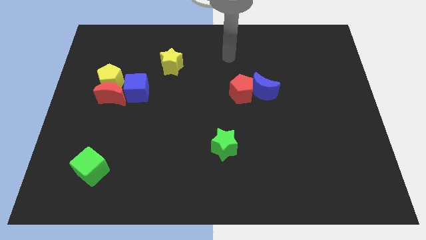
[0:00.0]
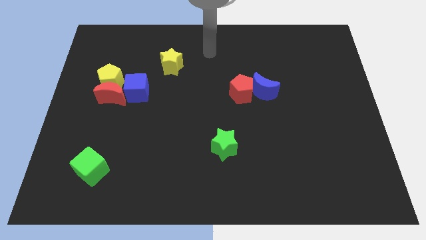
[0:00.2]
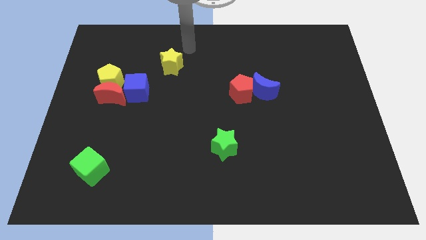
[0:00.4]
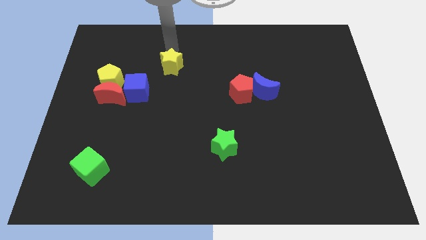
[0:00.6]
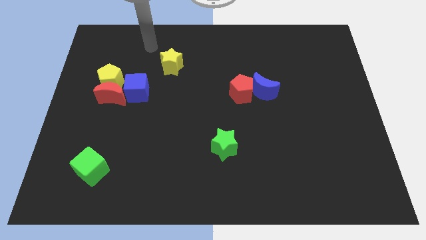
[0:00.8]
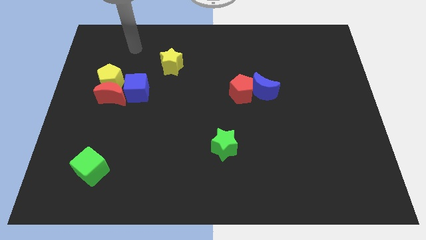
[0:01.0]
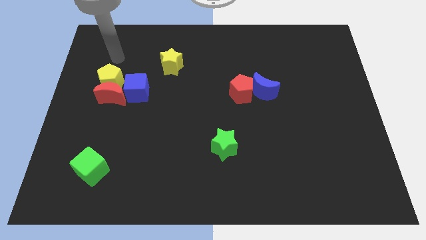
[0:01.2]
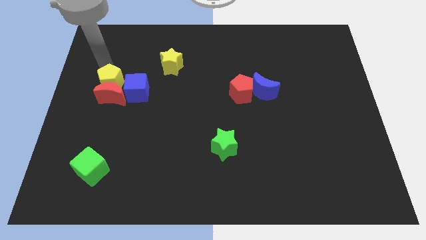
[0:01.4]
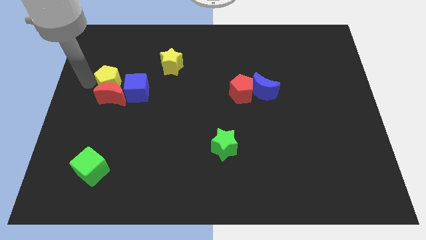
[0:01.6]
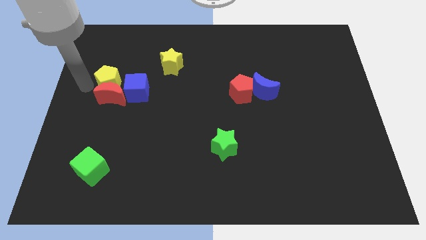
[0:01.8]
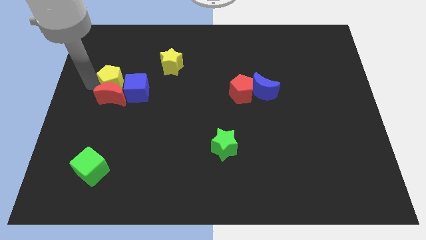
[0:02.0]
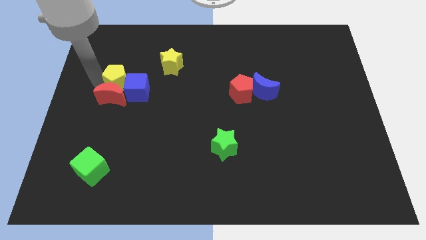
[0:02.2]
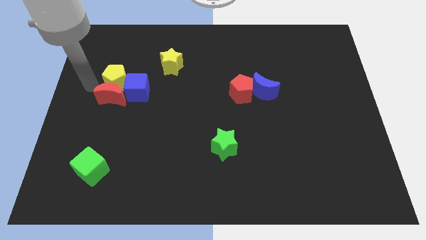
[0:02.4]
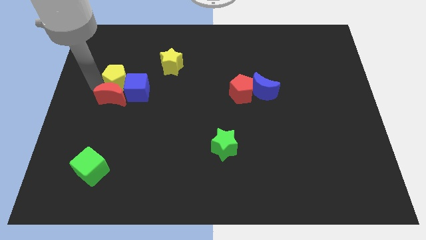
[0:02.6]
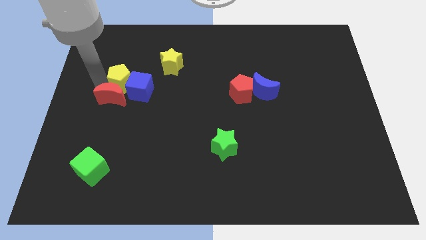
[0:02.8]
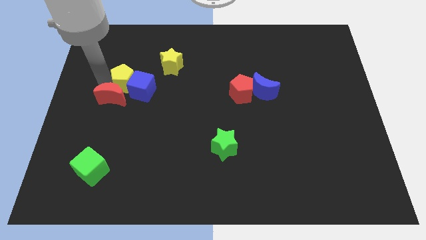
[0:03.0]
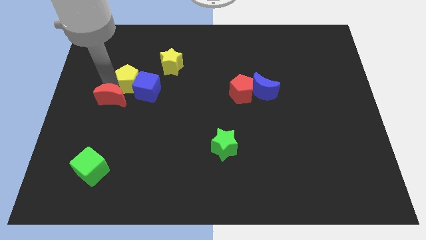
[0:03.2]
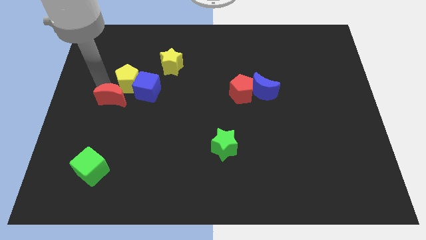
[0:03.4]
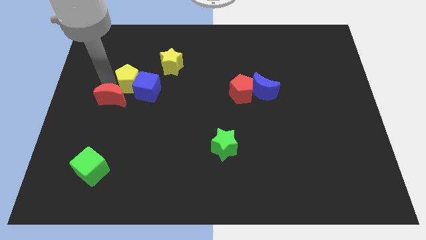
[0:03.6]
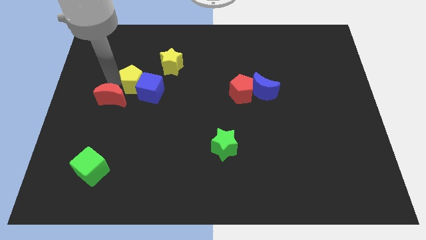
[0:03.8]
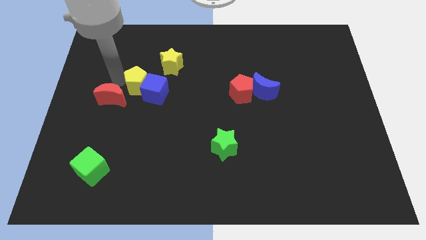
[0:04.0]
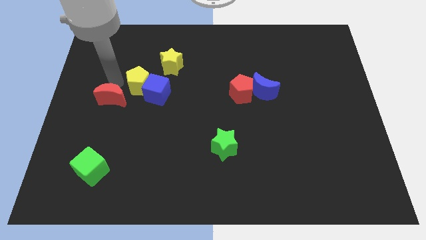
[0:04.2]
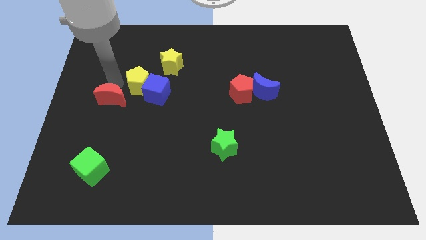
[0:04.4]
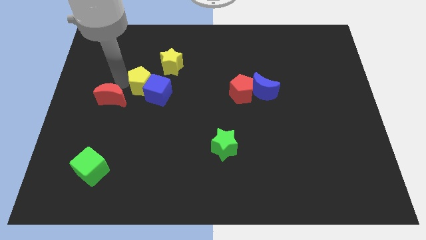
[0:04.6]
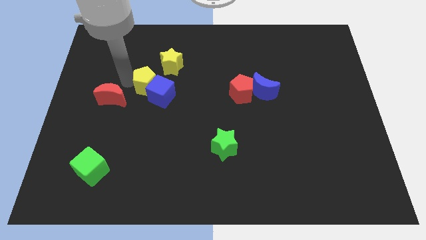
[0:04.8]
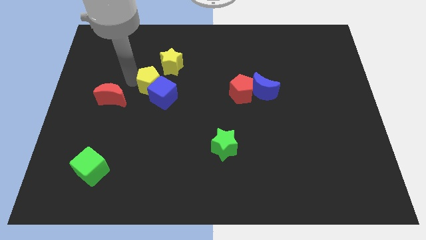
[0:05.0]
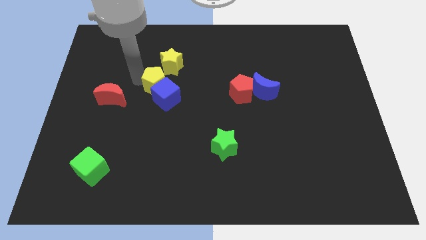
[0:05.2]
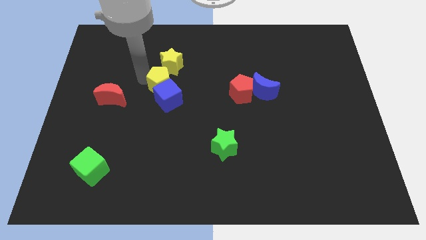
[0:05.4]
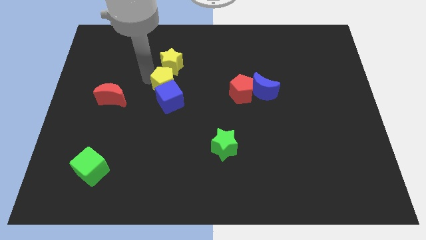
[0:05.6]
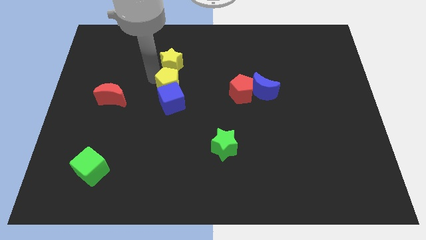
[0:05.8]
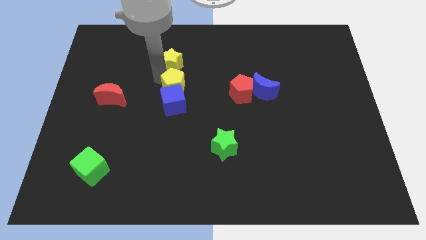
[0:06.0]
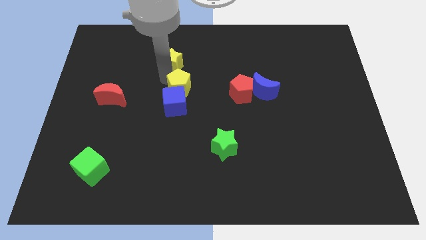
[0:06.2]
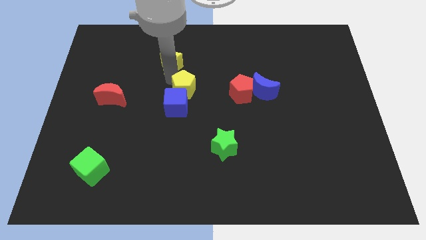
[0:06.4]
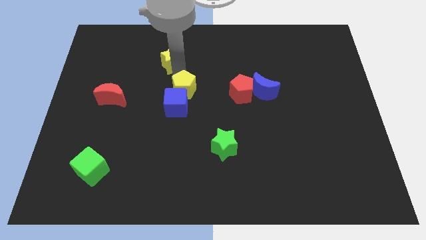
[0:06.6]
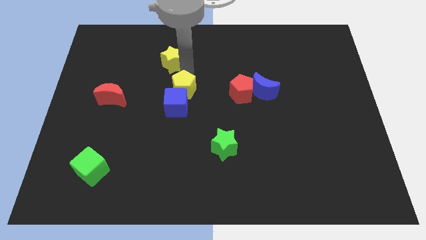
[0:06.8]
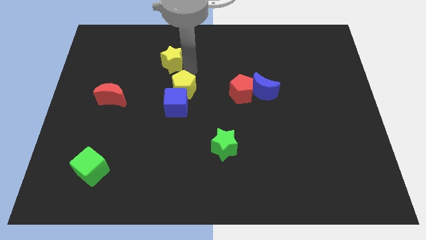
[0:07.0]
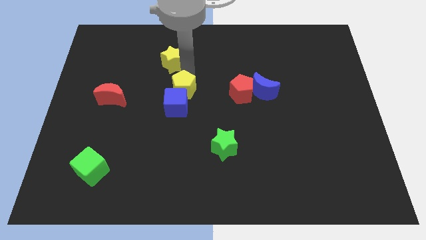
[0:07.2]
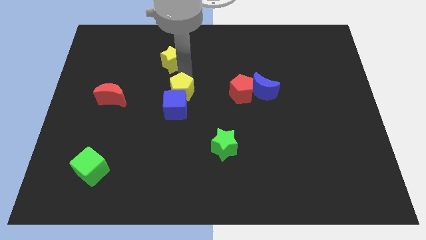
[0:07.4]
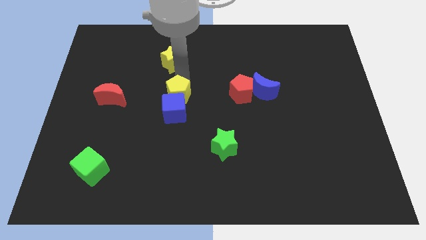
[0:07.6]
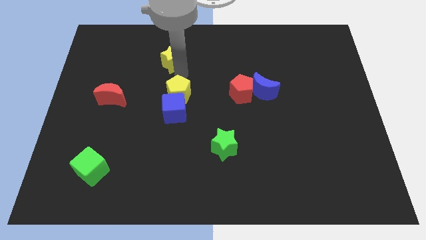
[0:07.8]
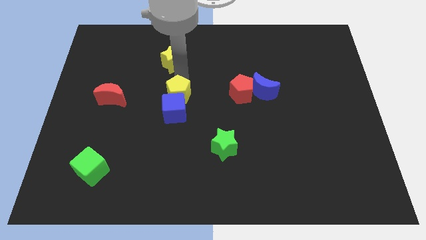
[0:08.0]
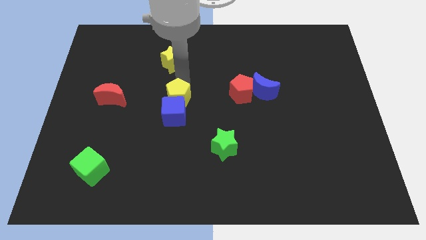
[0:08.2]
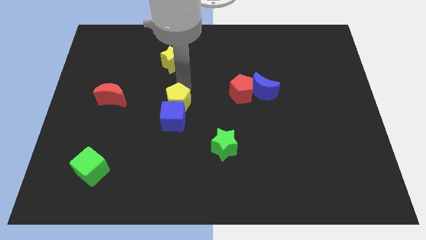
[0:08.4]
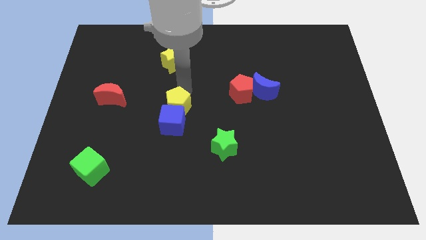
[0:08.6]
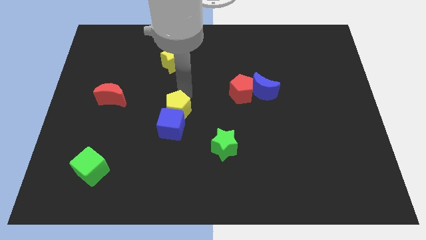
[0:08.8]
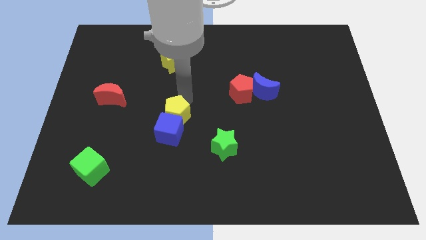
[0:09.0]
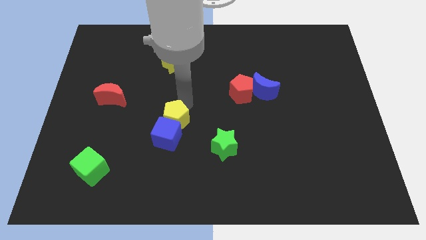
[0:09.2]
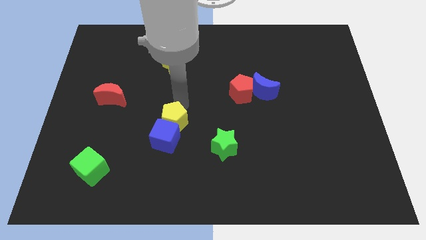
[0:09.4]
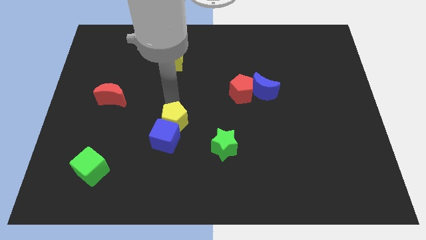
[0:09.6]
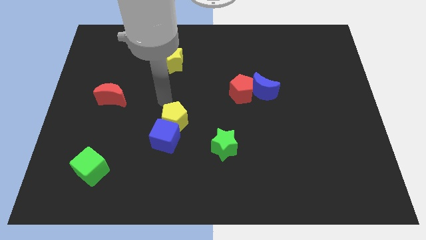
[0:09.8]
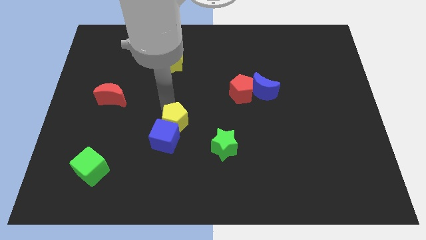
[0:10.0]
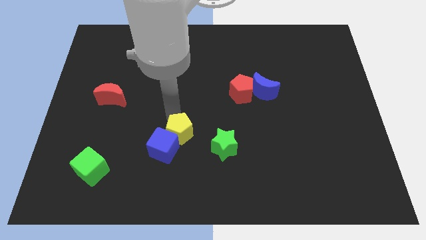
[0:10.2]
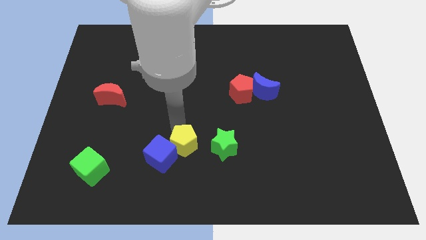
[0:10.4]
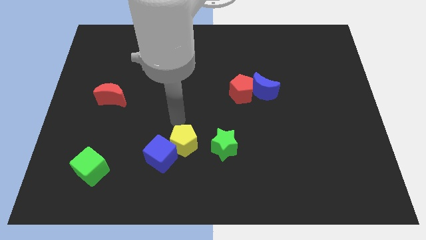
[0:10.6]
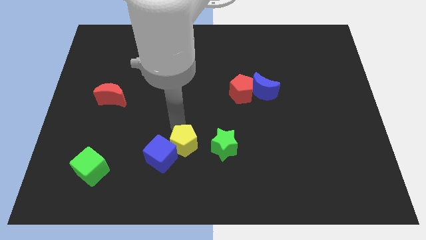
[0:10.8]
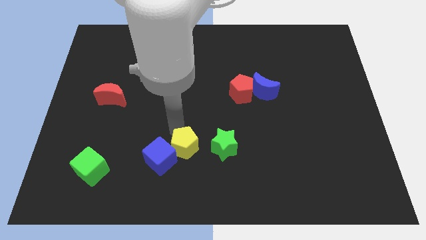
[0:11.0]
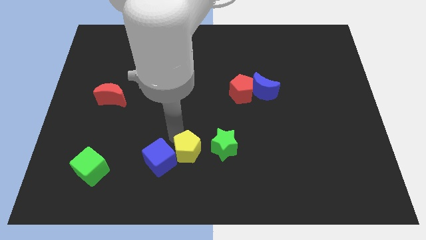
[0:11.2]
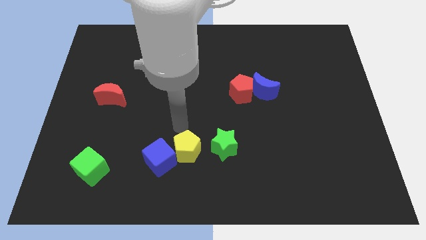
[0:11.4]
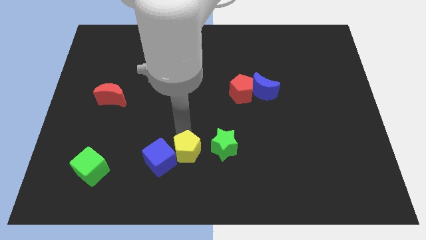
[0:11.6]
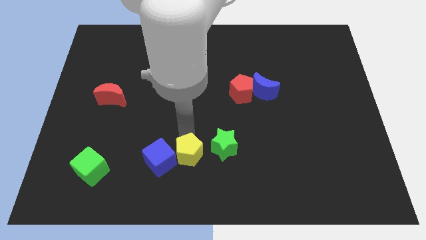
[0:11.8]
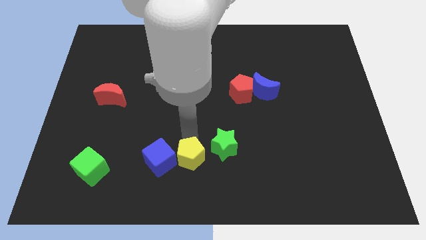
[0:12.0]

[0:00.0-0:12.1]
put the yellow pentagon to the bottom side

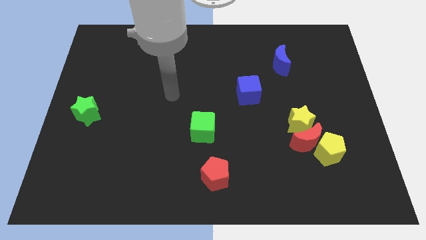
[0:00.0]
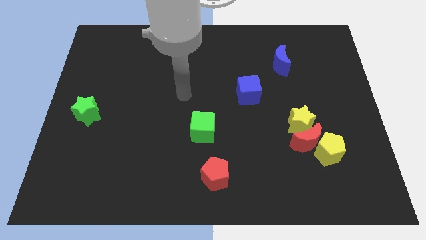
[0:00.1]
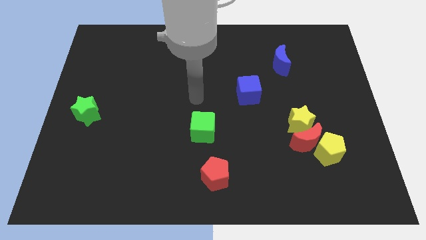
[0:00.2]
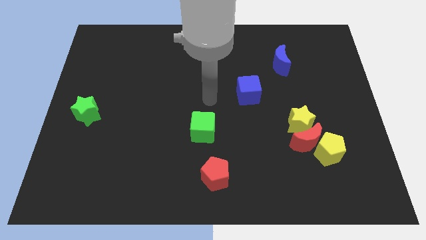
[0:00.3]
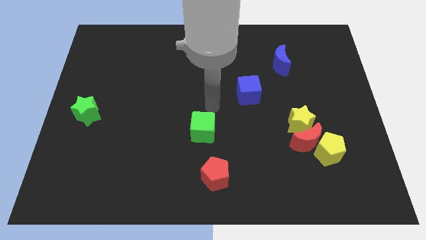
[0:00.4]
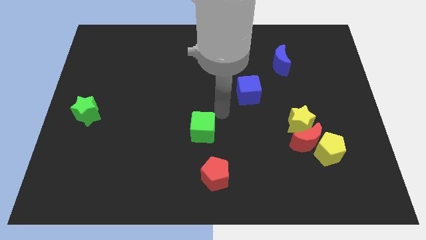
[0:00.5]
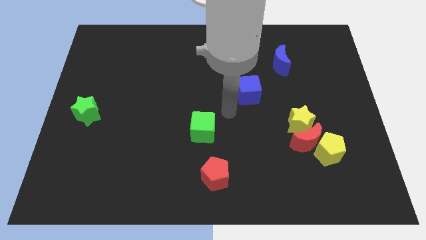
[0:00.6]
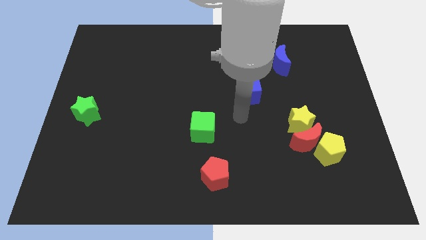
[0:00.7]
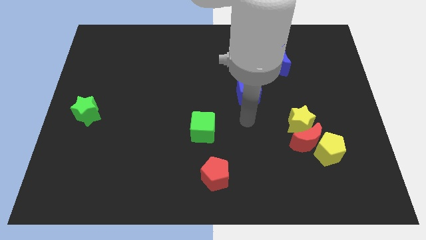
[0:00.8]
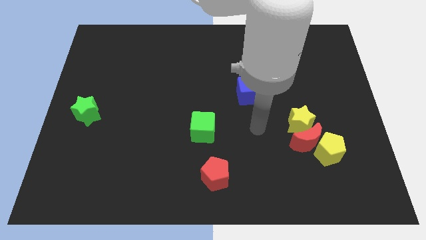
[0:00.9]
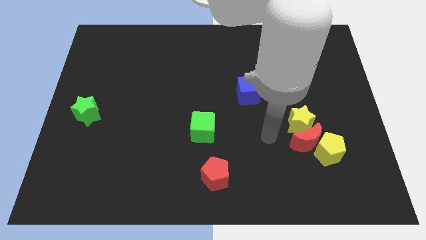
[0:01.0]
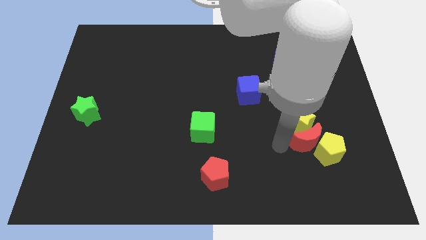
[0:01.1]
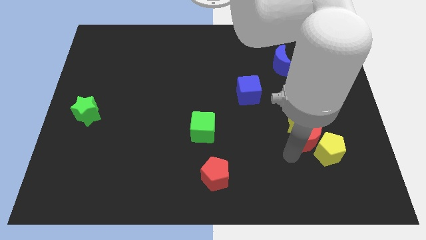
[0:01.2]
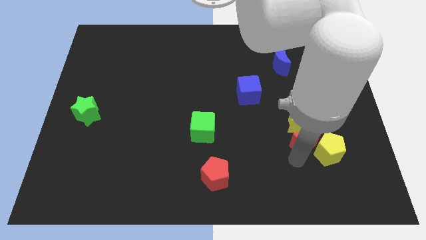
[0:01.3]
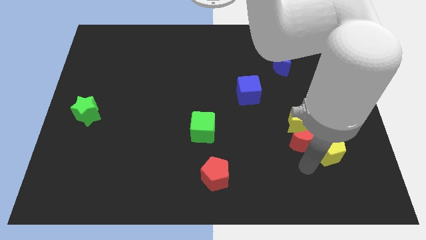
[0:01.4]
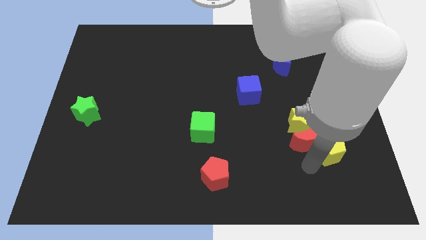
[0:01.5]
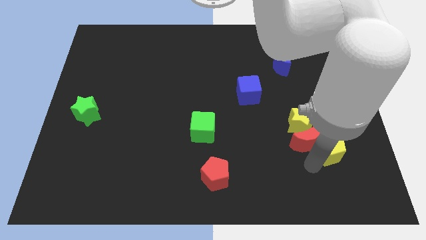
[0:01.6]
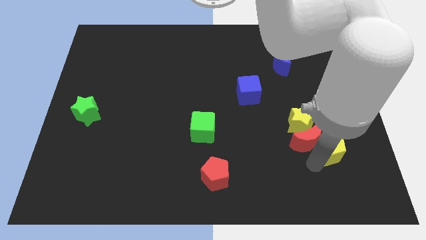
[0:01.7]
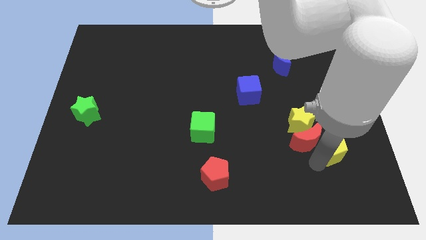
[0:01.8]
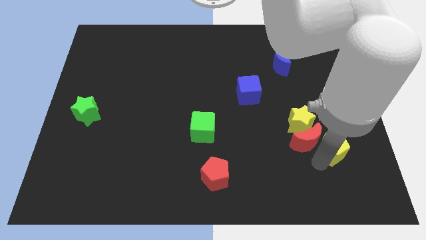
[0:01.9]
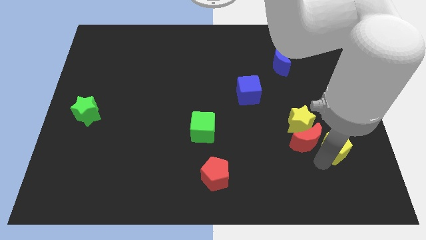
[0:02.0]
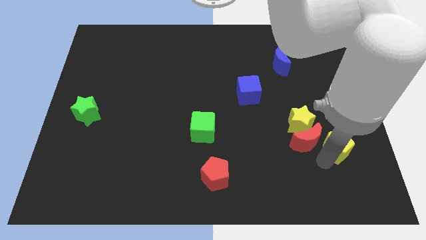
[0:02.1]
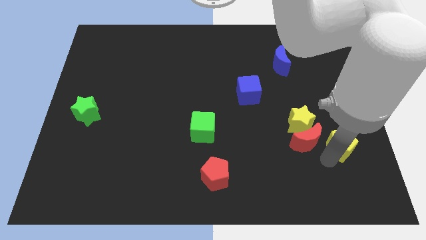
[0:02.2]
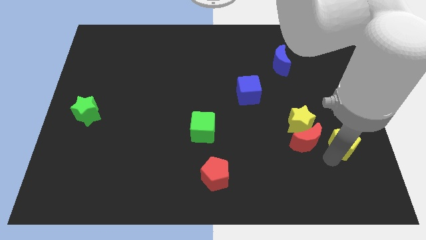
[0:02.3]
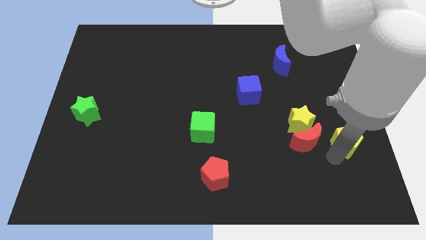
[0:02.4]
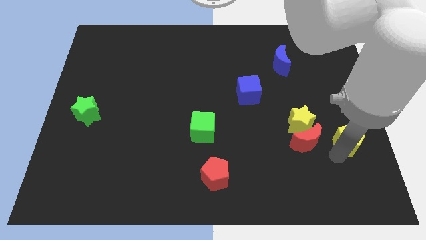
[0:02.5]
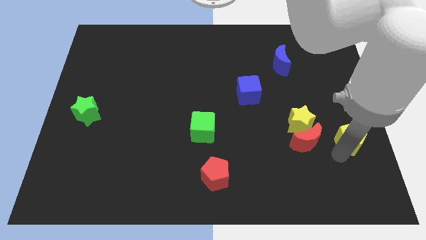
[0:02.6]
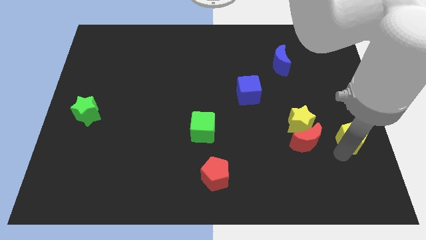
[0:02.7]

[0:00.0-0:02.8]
slide the yellow pentagon to the right side
